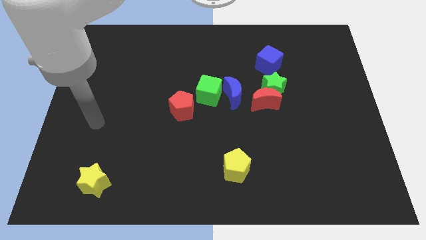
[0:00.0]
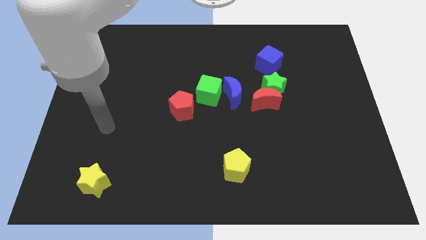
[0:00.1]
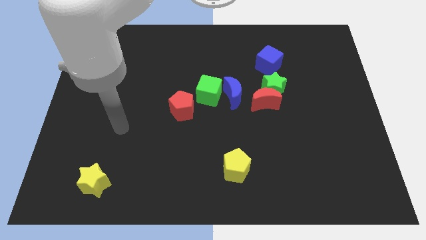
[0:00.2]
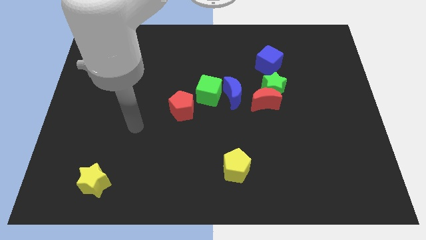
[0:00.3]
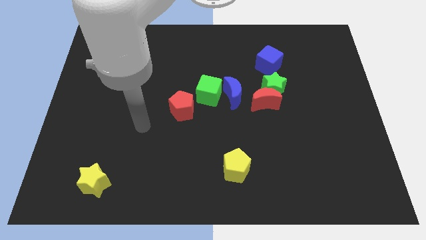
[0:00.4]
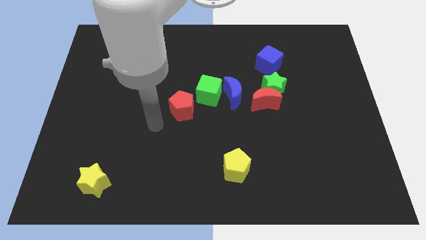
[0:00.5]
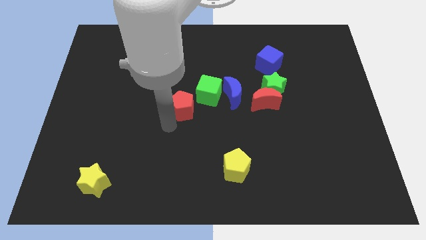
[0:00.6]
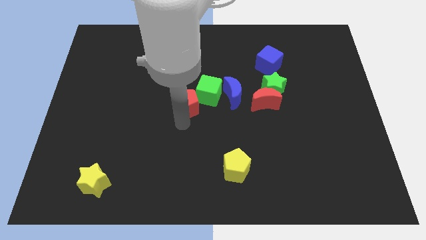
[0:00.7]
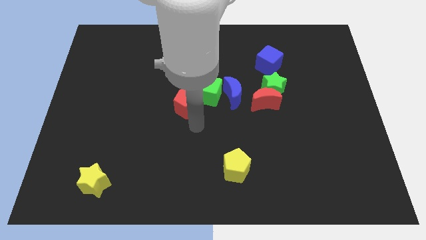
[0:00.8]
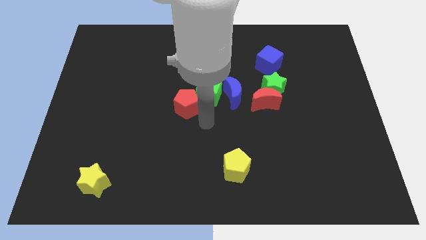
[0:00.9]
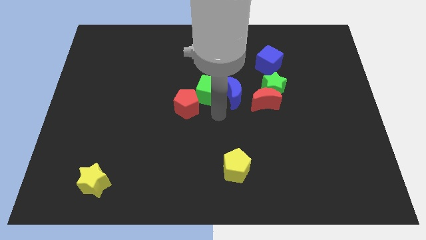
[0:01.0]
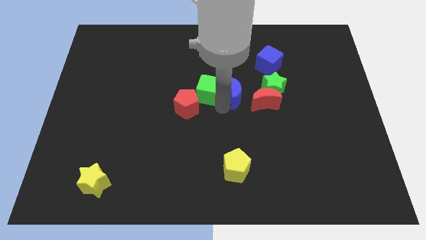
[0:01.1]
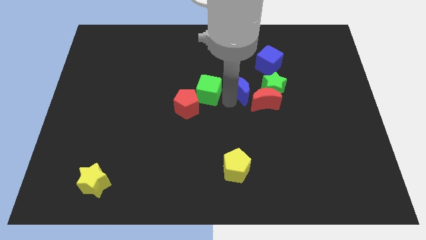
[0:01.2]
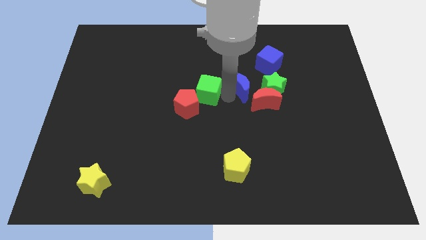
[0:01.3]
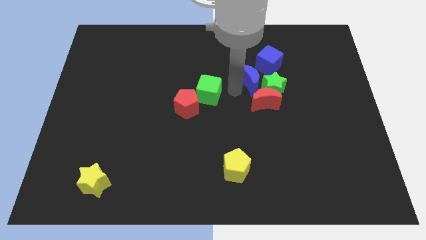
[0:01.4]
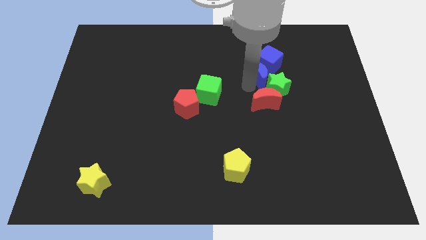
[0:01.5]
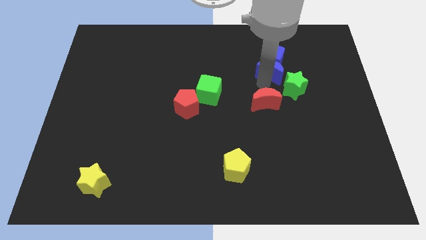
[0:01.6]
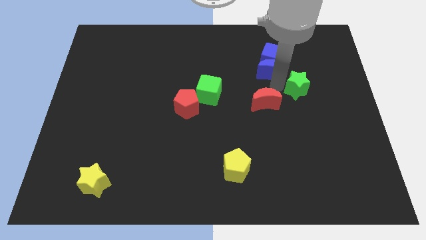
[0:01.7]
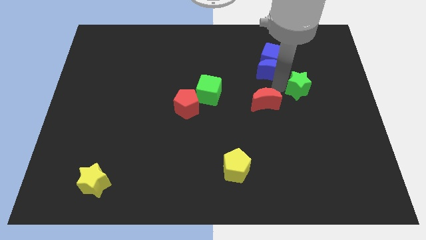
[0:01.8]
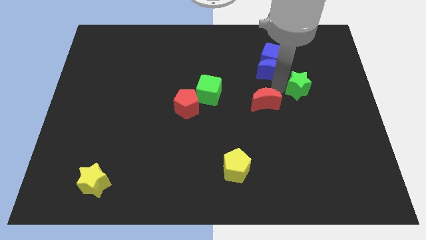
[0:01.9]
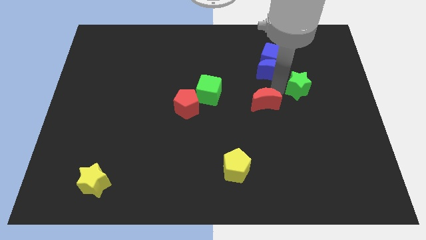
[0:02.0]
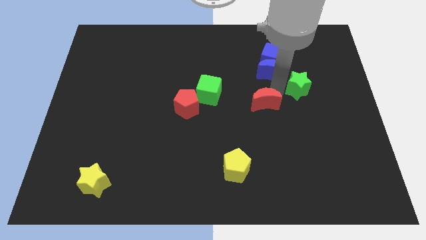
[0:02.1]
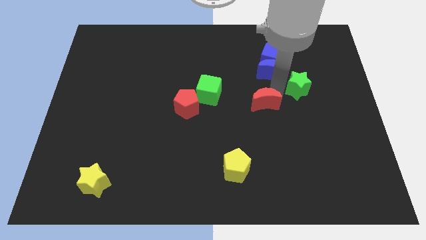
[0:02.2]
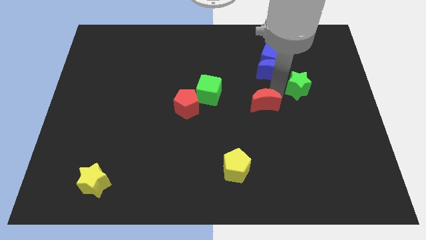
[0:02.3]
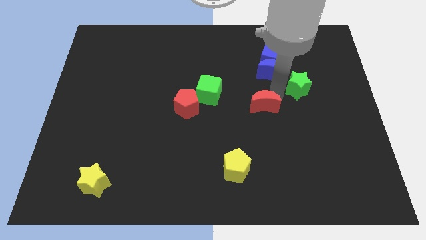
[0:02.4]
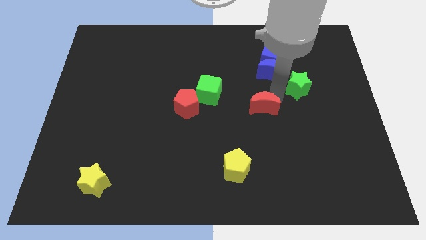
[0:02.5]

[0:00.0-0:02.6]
pull the red moon apart from the green star and blue moon

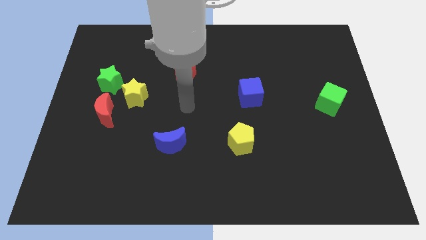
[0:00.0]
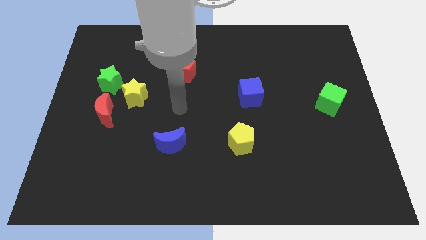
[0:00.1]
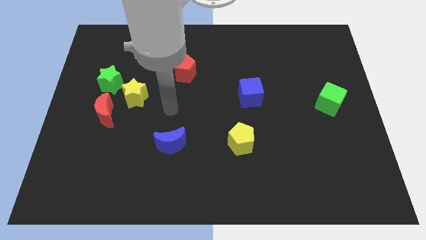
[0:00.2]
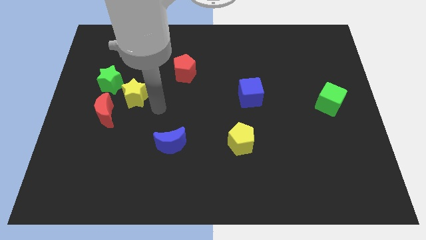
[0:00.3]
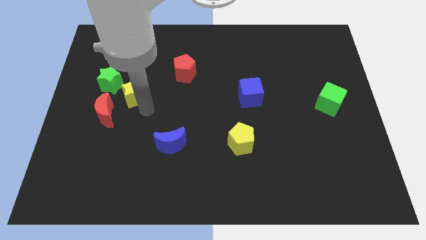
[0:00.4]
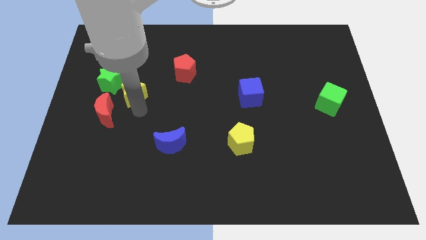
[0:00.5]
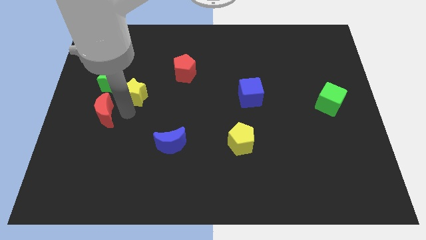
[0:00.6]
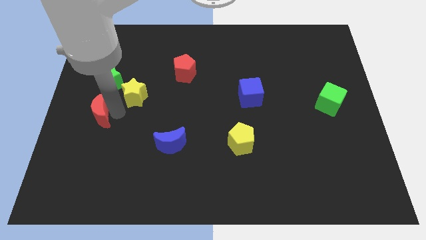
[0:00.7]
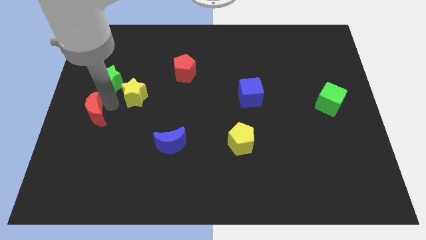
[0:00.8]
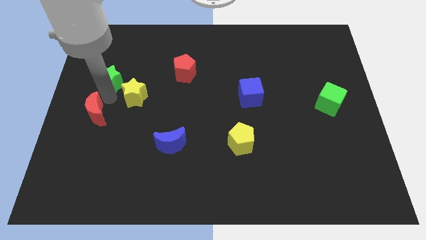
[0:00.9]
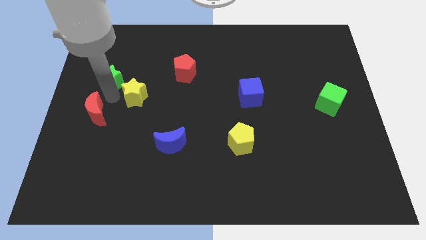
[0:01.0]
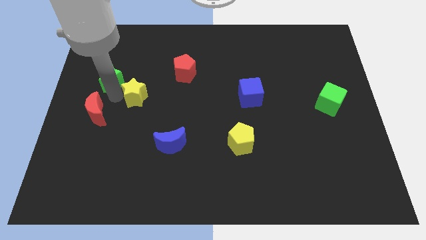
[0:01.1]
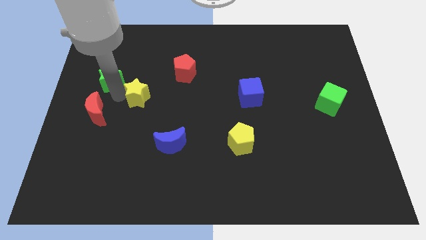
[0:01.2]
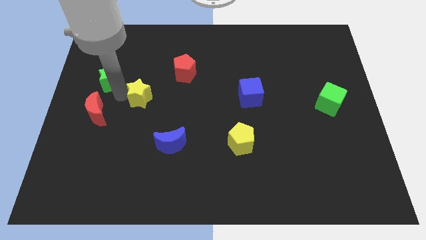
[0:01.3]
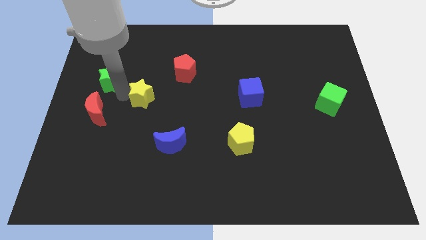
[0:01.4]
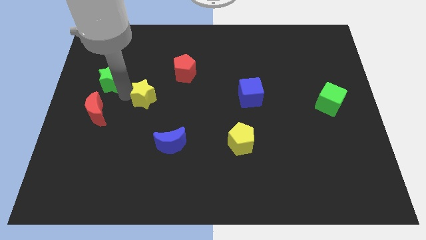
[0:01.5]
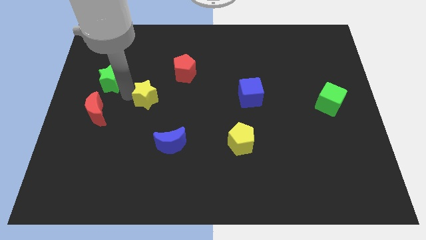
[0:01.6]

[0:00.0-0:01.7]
move the yellow star away from the red moon and green star

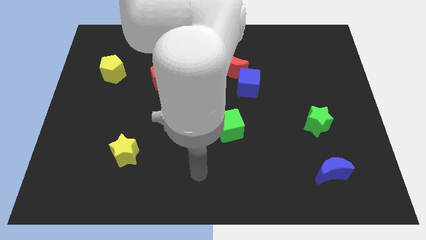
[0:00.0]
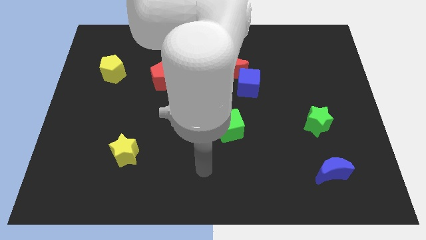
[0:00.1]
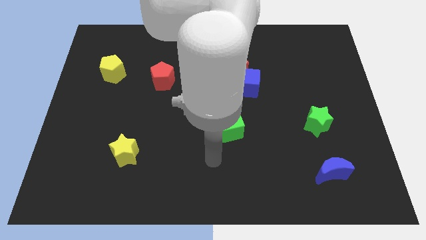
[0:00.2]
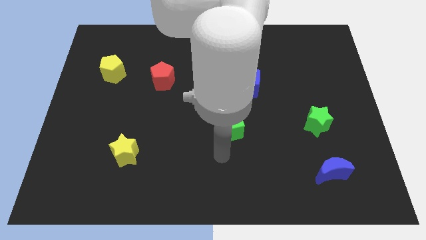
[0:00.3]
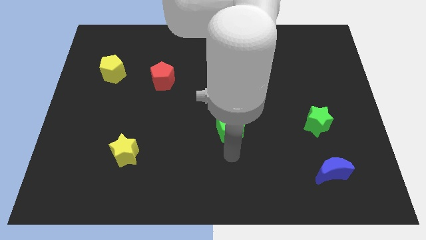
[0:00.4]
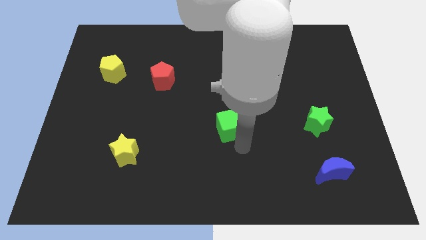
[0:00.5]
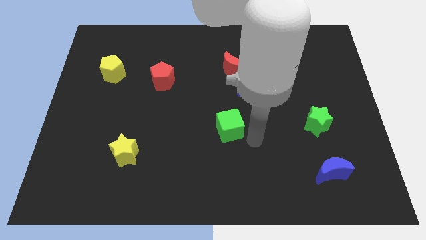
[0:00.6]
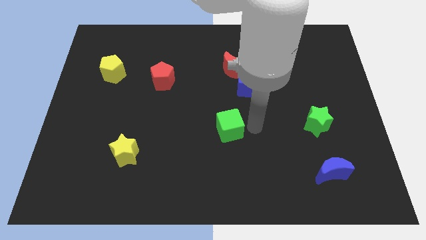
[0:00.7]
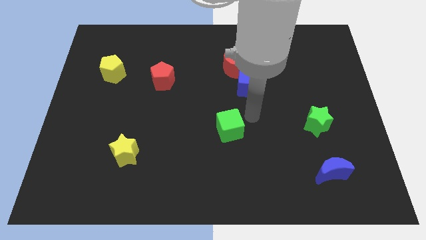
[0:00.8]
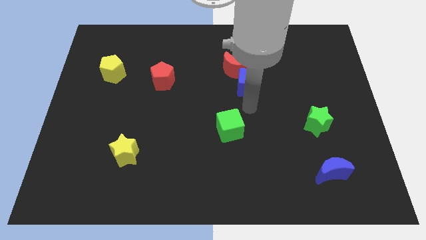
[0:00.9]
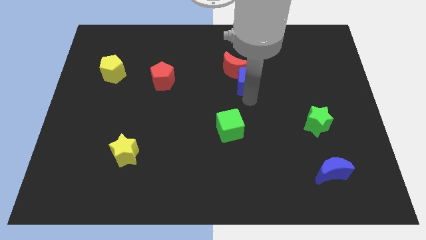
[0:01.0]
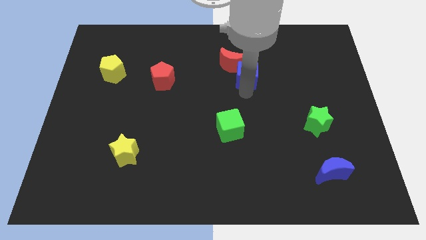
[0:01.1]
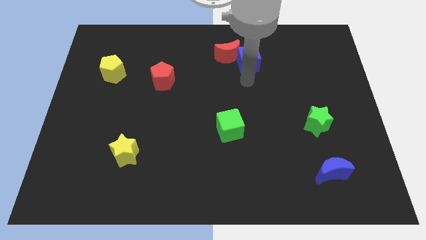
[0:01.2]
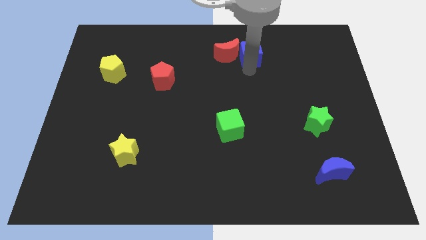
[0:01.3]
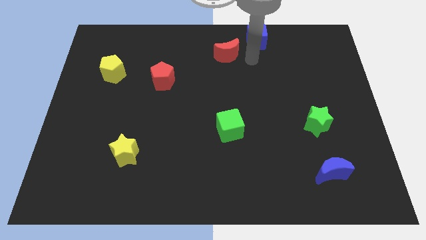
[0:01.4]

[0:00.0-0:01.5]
separate the red moon from the blue cube

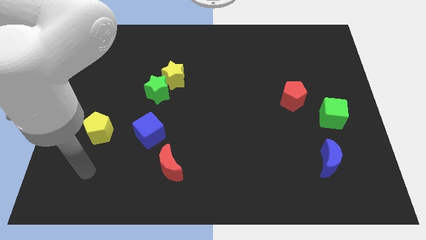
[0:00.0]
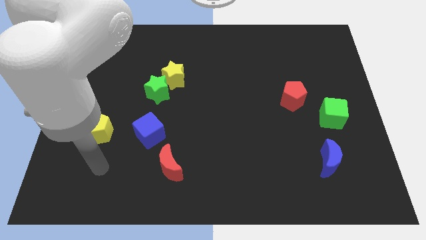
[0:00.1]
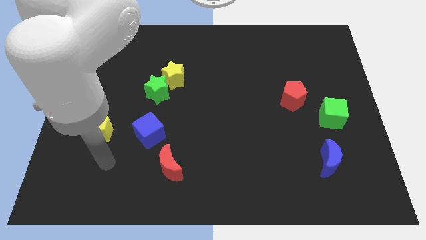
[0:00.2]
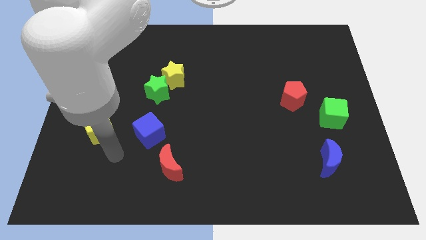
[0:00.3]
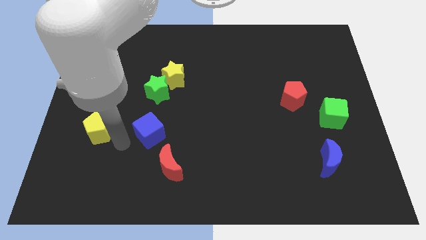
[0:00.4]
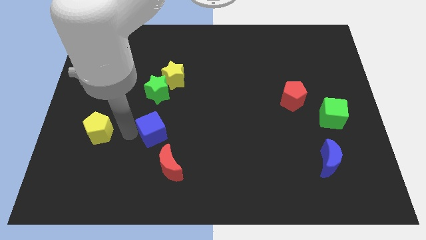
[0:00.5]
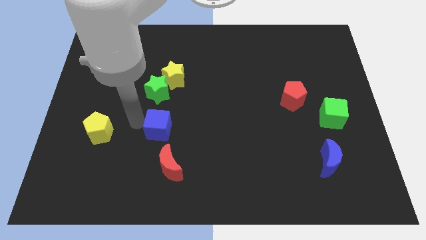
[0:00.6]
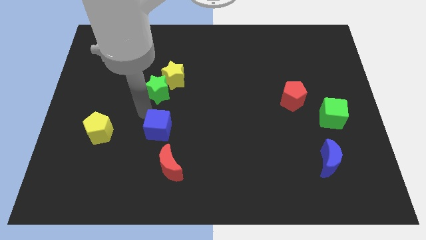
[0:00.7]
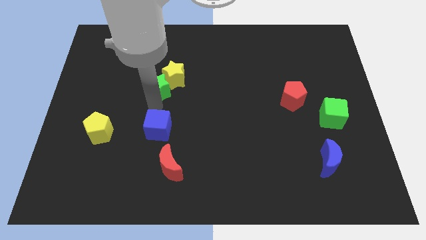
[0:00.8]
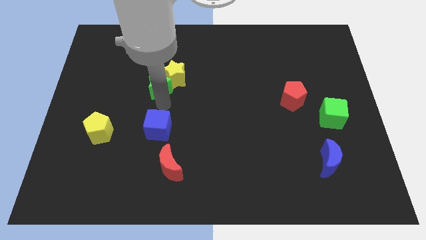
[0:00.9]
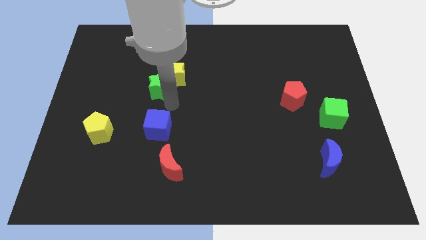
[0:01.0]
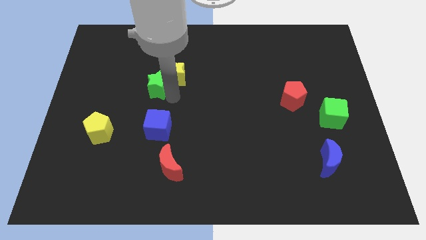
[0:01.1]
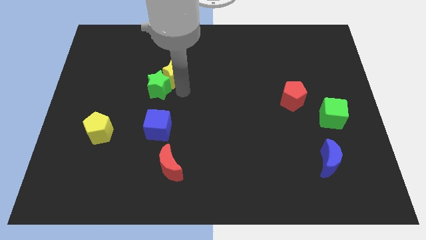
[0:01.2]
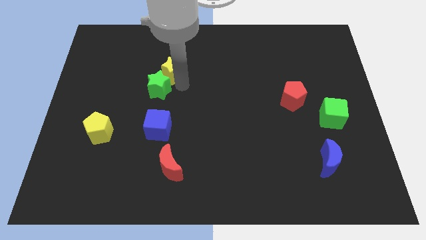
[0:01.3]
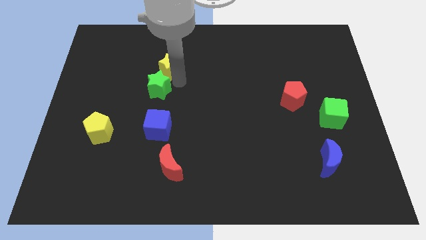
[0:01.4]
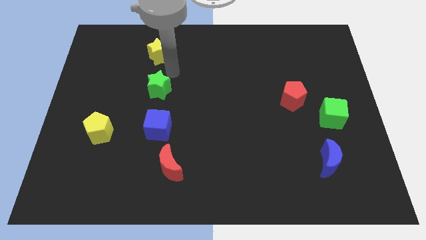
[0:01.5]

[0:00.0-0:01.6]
pull the green star apart from the yellow star

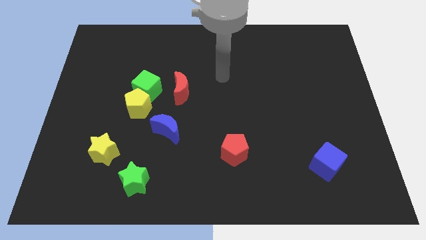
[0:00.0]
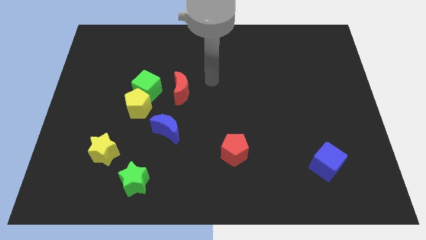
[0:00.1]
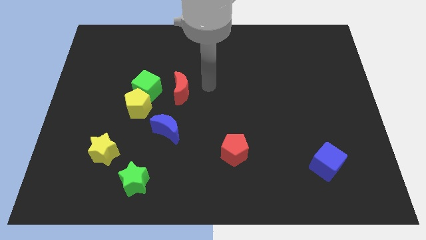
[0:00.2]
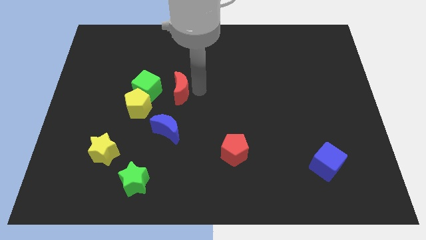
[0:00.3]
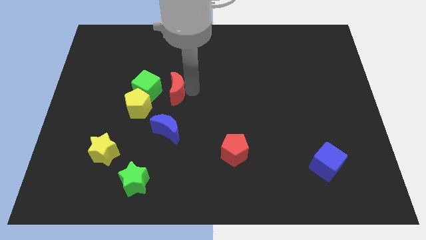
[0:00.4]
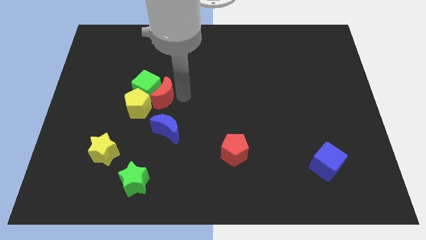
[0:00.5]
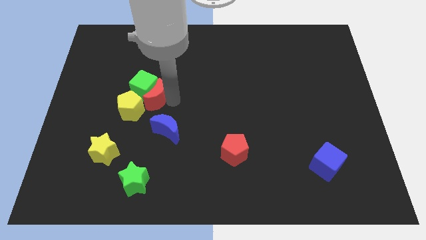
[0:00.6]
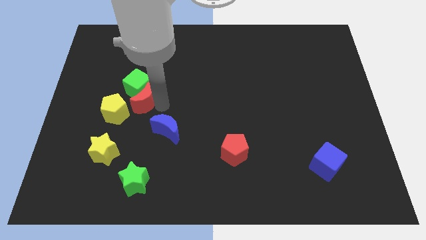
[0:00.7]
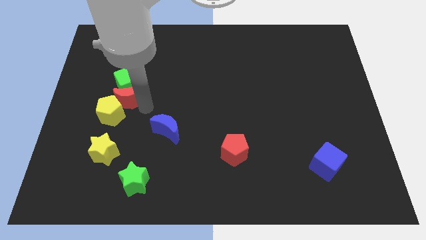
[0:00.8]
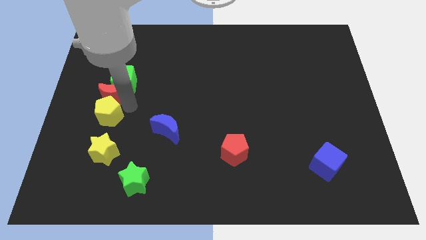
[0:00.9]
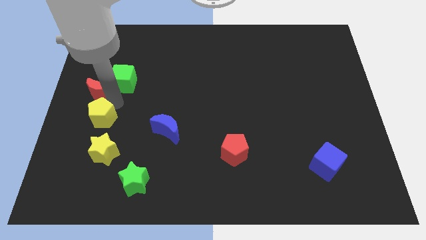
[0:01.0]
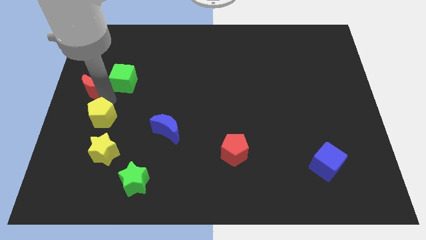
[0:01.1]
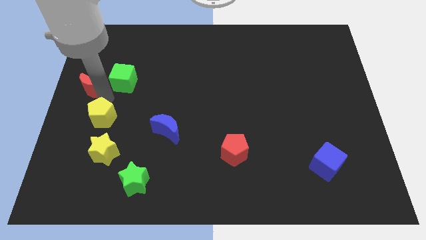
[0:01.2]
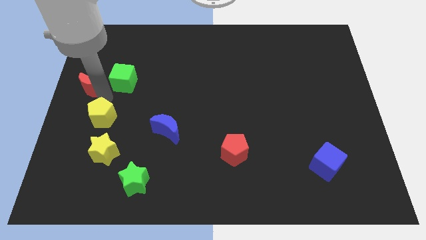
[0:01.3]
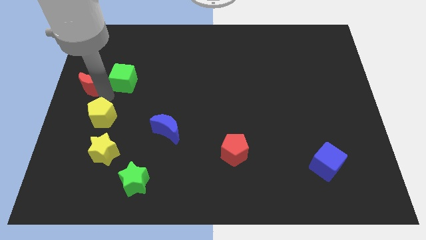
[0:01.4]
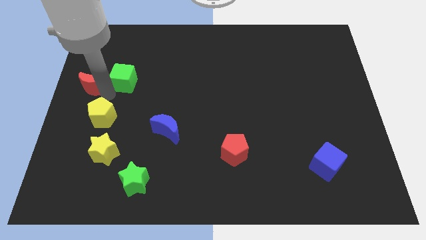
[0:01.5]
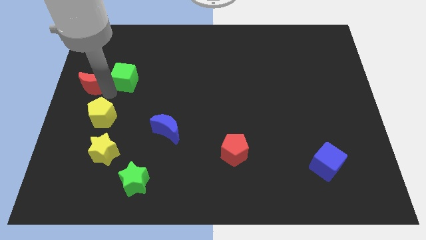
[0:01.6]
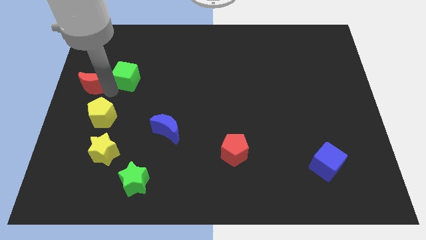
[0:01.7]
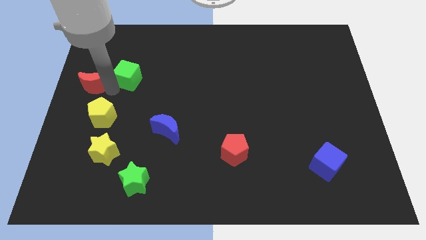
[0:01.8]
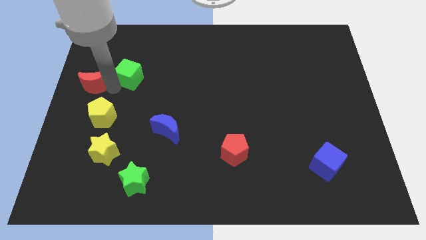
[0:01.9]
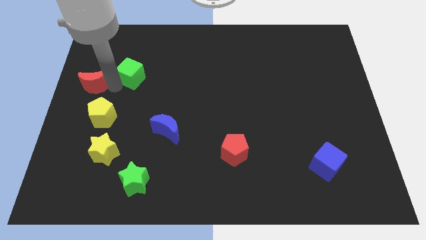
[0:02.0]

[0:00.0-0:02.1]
pull the green cube apart from the yellow pentagon and red moon
